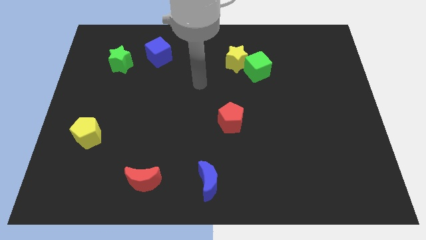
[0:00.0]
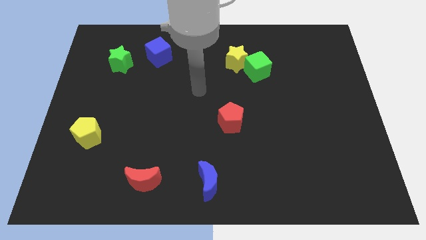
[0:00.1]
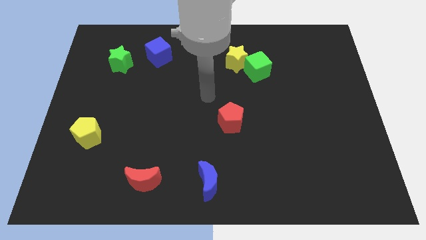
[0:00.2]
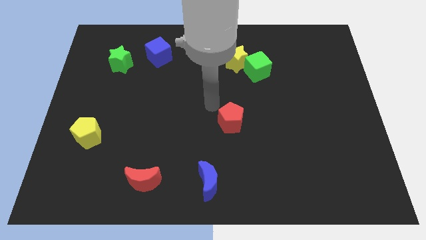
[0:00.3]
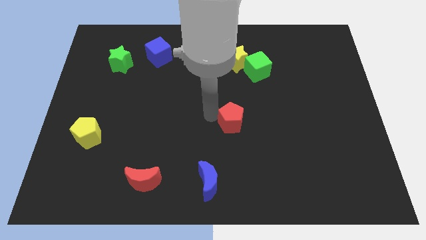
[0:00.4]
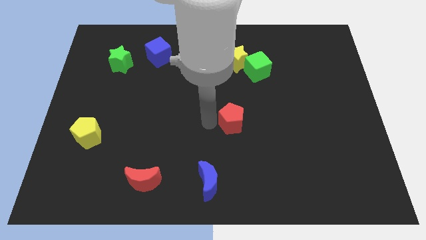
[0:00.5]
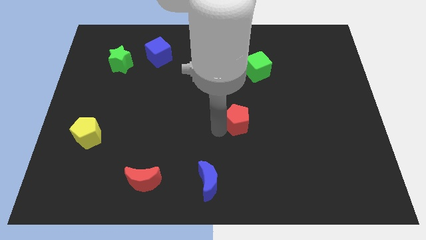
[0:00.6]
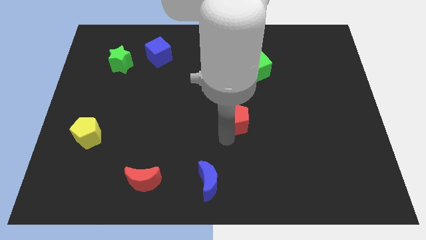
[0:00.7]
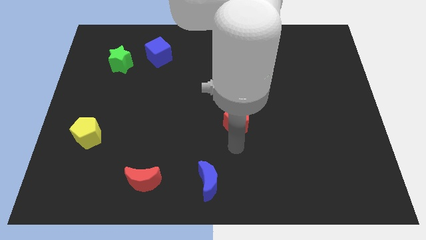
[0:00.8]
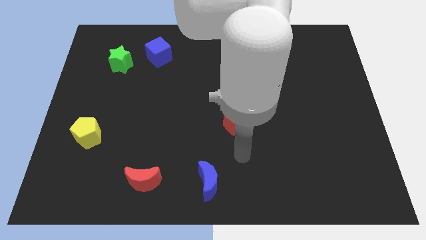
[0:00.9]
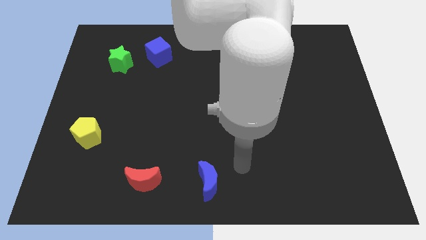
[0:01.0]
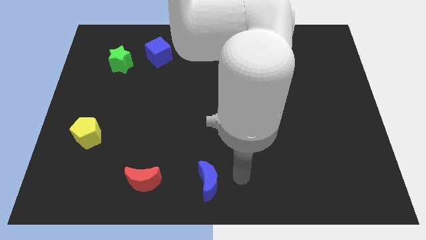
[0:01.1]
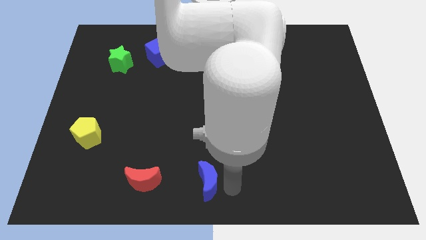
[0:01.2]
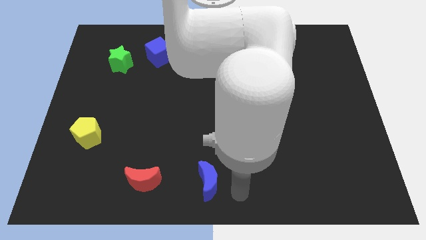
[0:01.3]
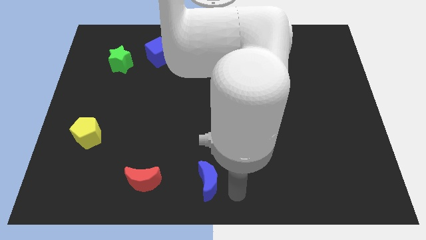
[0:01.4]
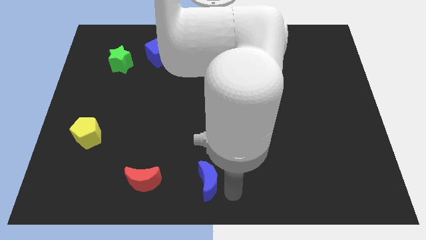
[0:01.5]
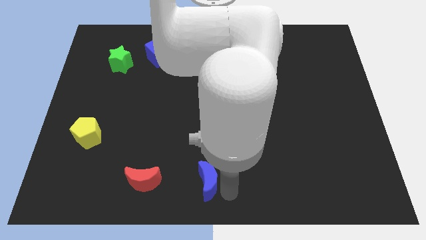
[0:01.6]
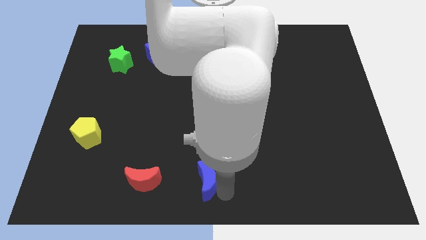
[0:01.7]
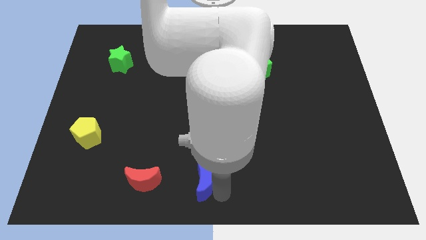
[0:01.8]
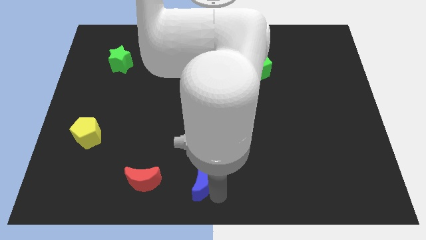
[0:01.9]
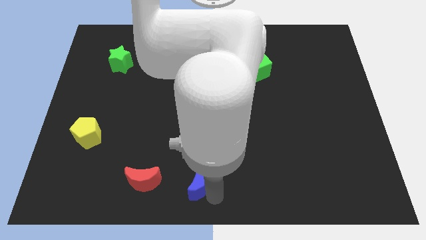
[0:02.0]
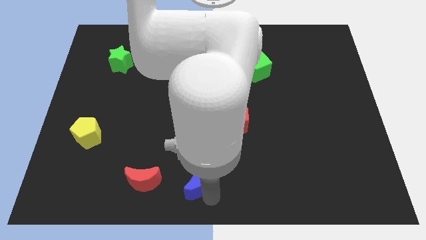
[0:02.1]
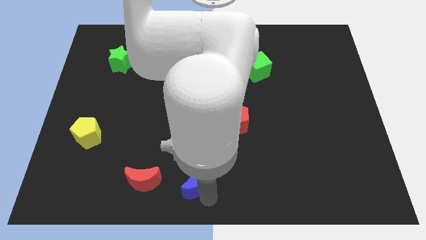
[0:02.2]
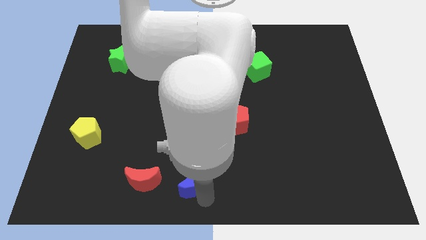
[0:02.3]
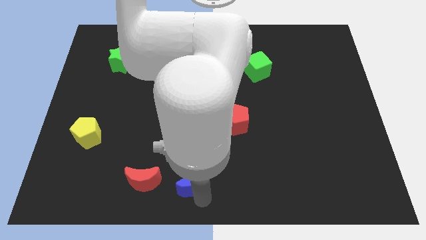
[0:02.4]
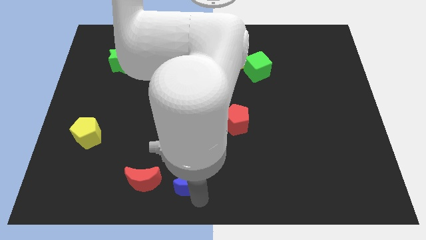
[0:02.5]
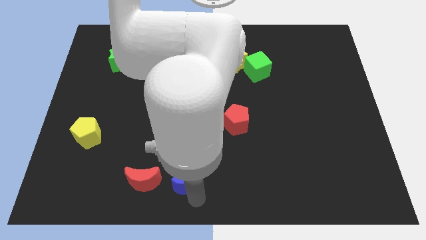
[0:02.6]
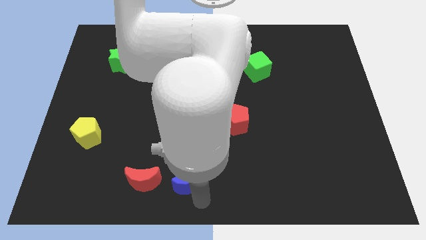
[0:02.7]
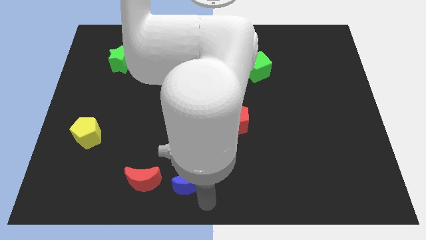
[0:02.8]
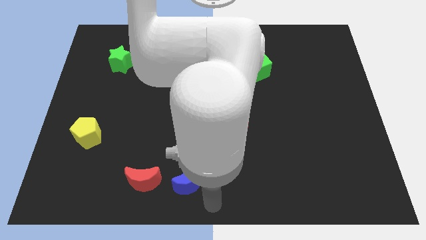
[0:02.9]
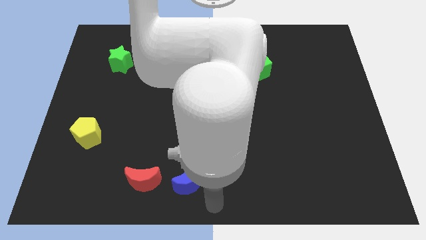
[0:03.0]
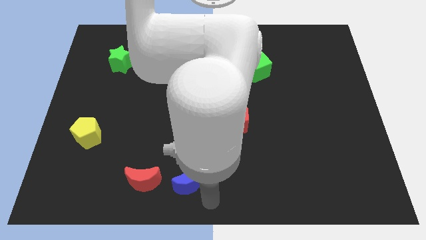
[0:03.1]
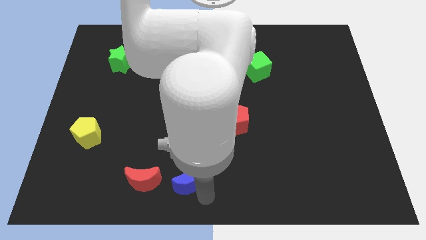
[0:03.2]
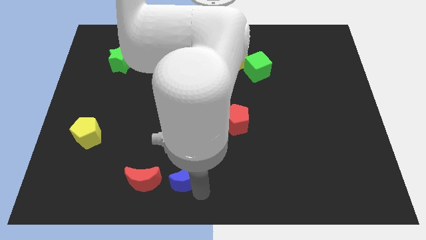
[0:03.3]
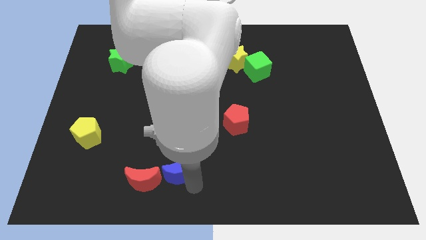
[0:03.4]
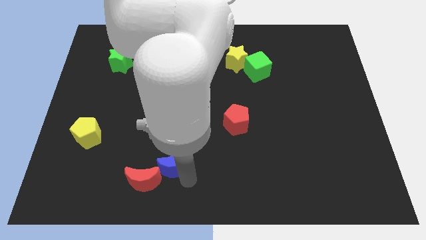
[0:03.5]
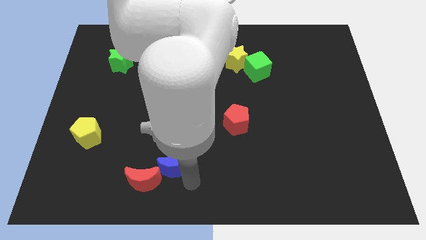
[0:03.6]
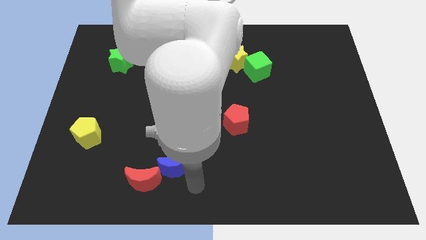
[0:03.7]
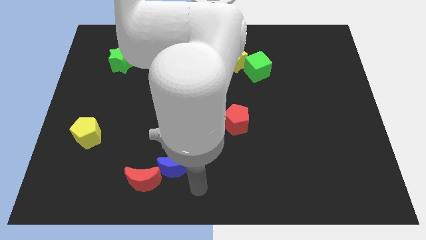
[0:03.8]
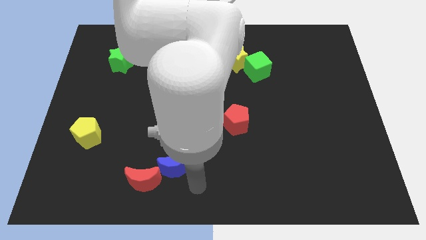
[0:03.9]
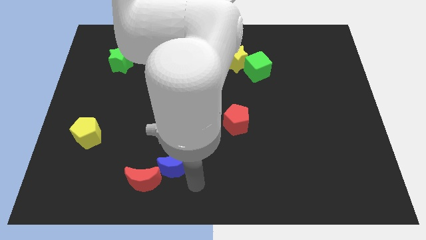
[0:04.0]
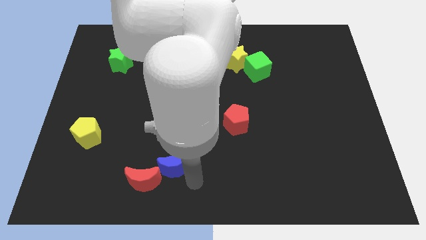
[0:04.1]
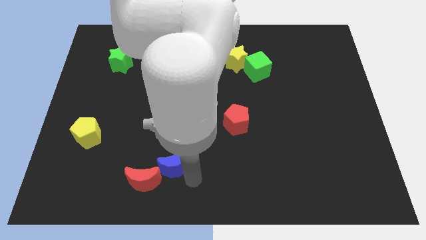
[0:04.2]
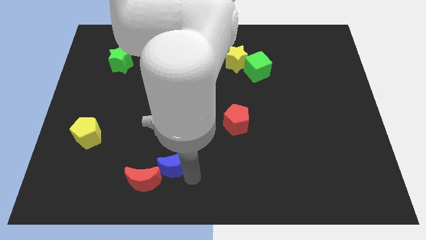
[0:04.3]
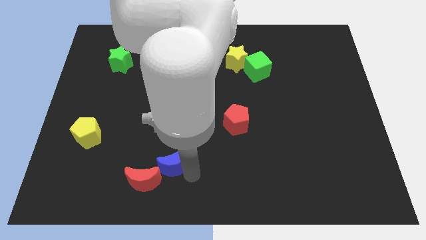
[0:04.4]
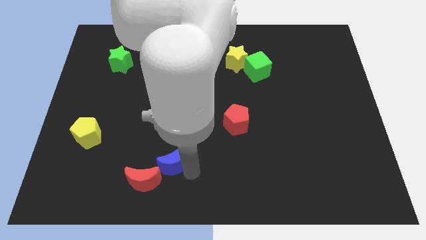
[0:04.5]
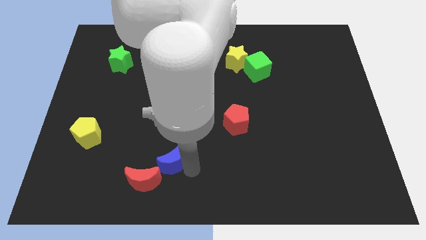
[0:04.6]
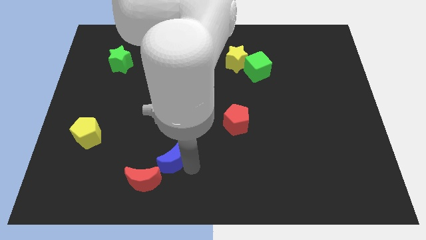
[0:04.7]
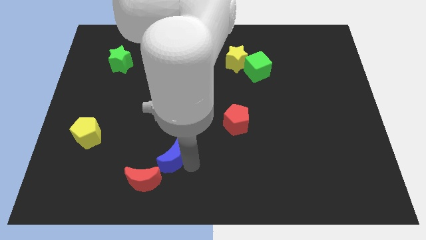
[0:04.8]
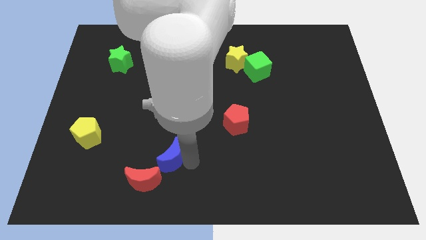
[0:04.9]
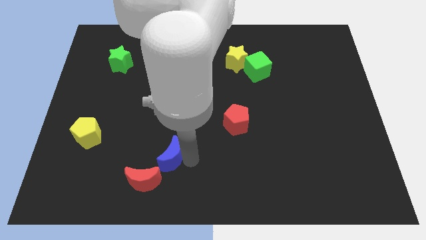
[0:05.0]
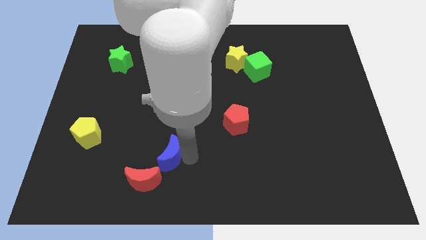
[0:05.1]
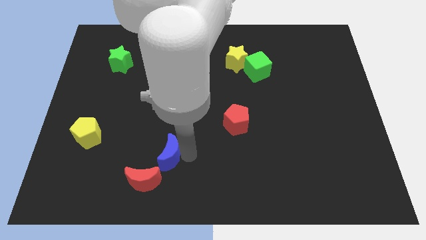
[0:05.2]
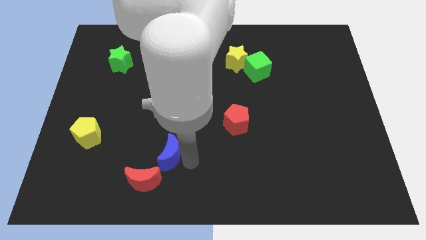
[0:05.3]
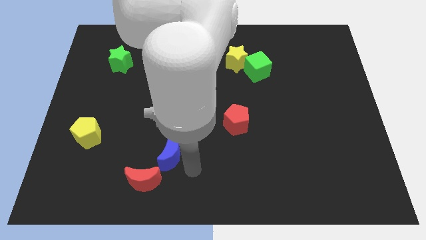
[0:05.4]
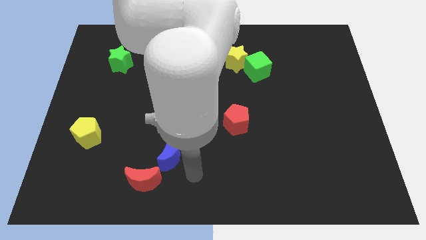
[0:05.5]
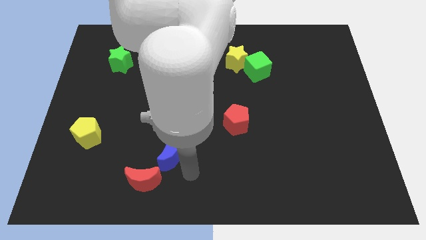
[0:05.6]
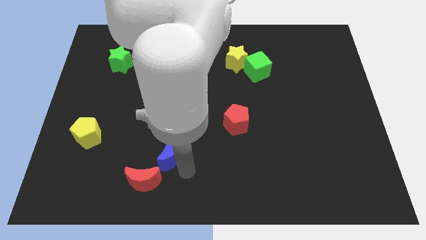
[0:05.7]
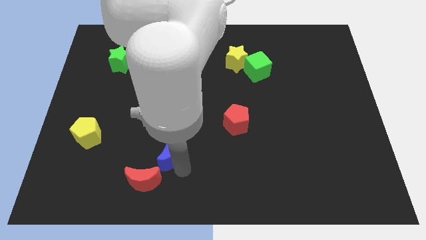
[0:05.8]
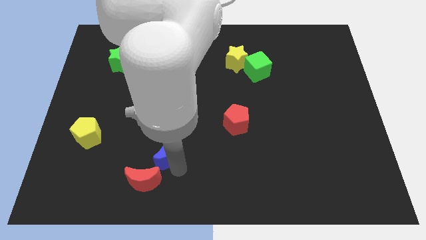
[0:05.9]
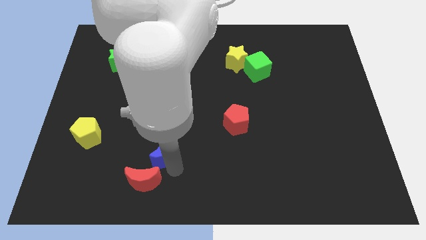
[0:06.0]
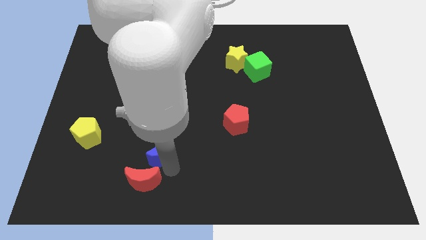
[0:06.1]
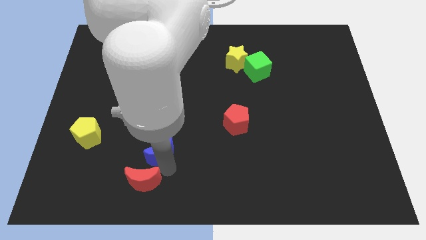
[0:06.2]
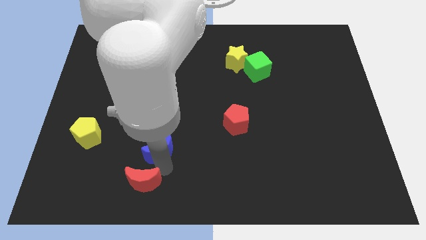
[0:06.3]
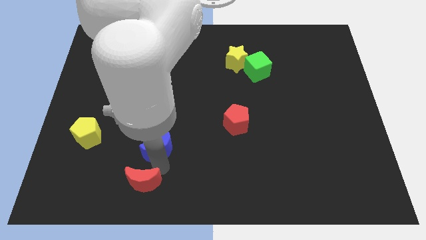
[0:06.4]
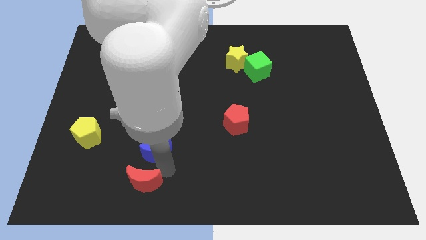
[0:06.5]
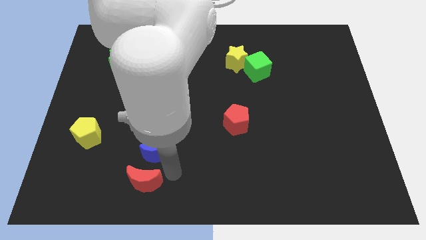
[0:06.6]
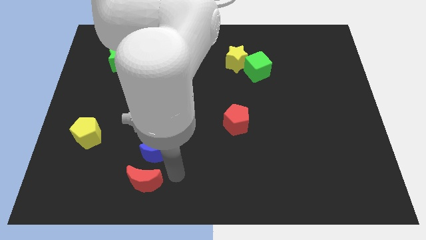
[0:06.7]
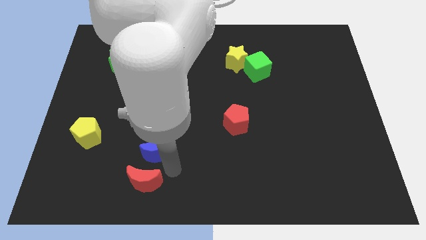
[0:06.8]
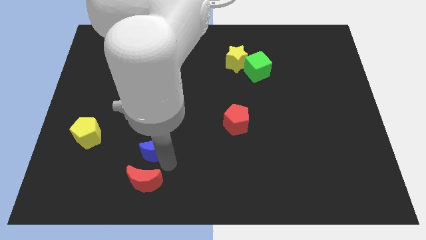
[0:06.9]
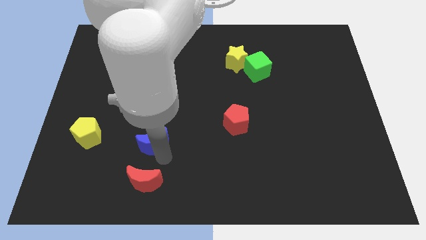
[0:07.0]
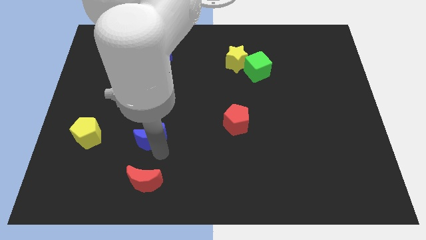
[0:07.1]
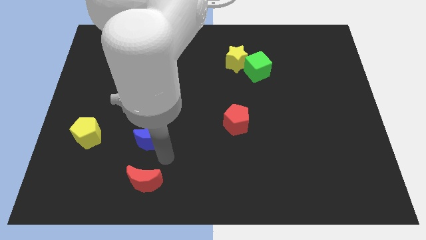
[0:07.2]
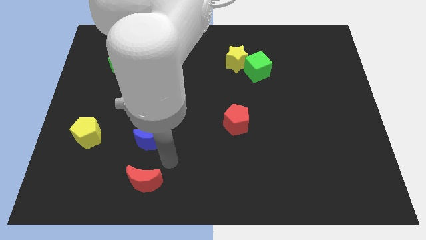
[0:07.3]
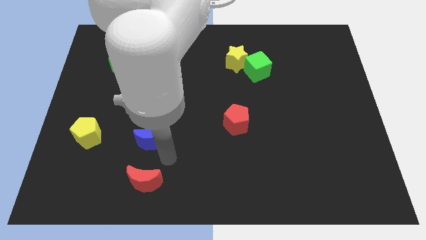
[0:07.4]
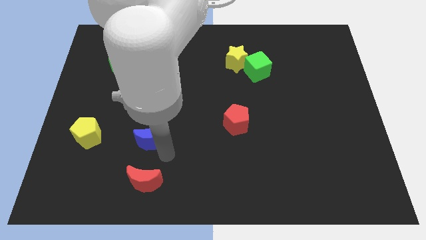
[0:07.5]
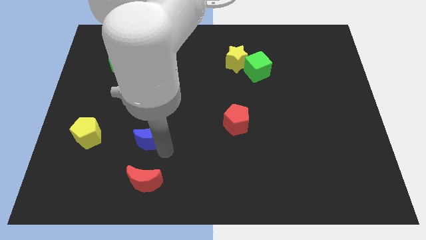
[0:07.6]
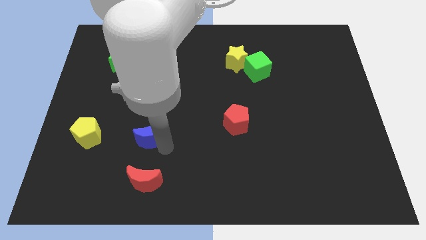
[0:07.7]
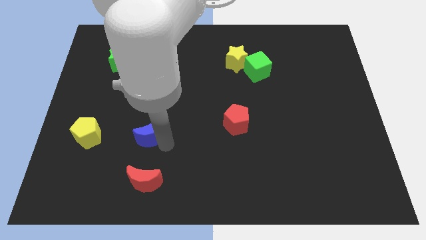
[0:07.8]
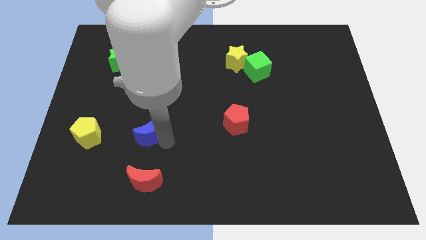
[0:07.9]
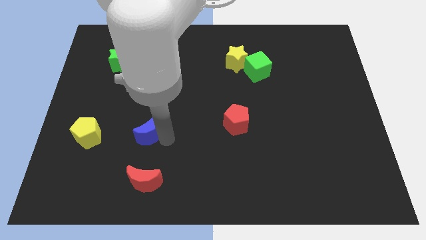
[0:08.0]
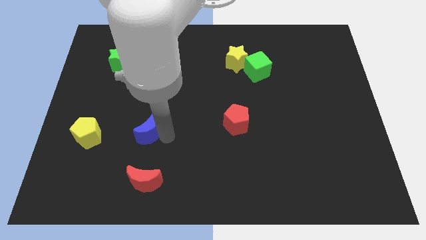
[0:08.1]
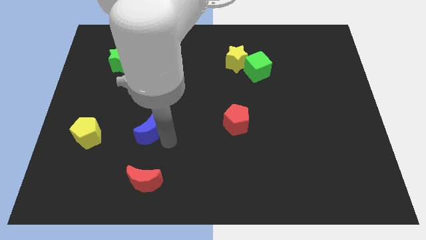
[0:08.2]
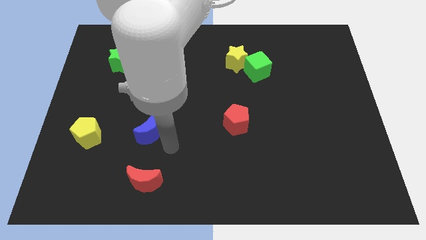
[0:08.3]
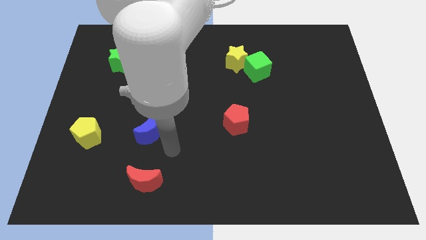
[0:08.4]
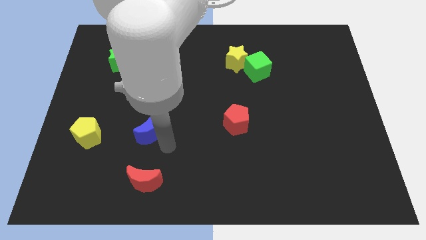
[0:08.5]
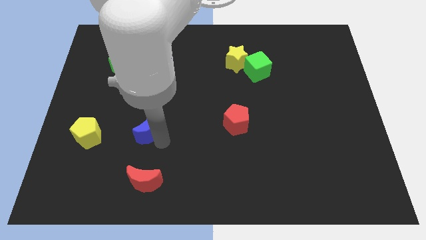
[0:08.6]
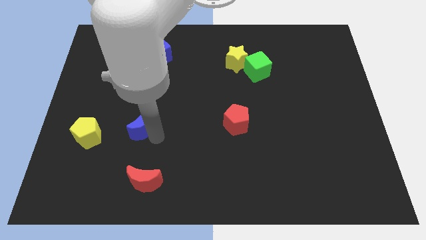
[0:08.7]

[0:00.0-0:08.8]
move the blue moon diagonally upwards and left
